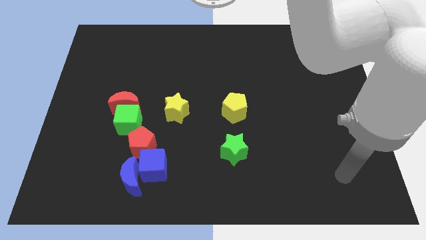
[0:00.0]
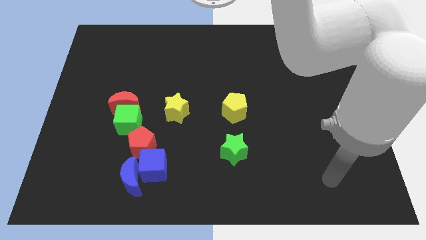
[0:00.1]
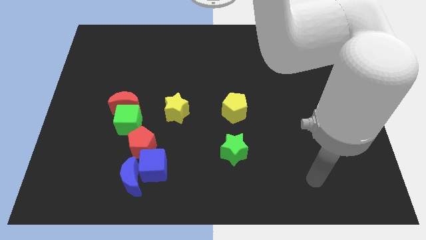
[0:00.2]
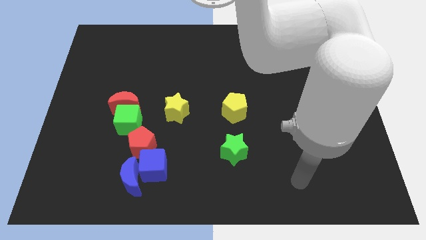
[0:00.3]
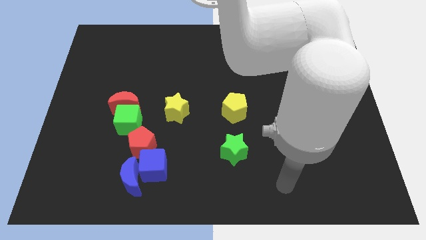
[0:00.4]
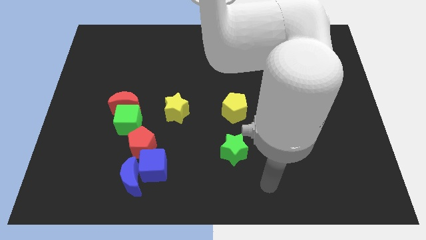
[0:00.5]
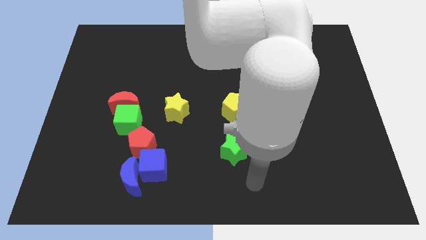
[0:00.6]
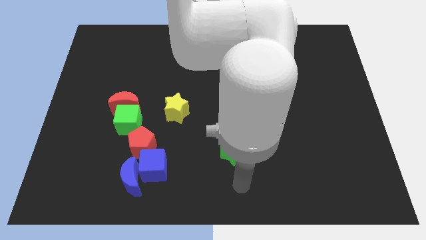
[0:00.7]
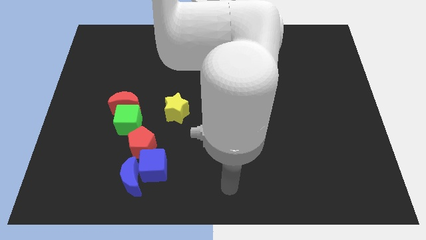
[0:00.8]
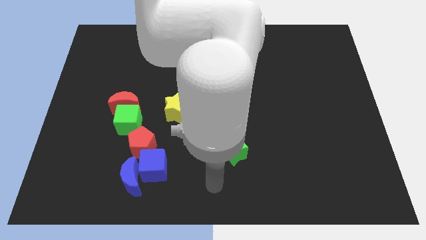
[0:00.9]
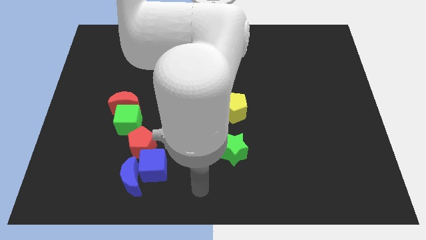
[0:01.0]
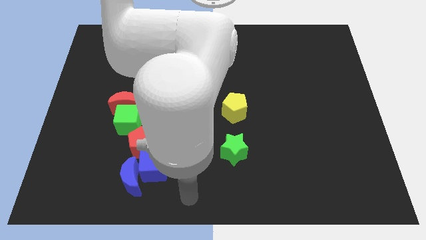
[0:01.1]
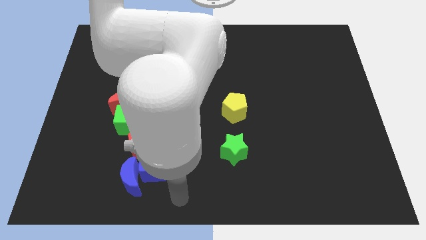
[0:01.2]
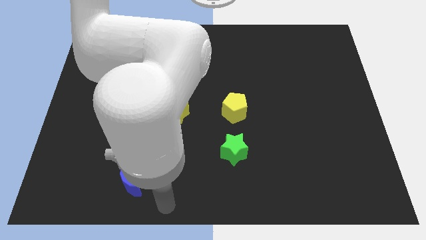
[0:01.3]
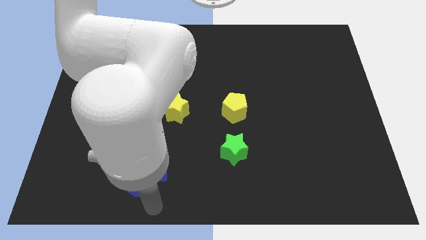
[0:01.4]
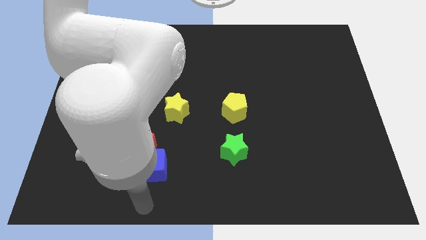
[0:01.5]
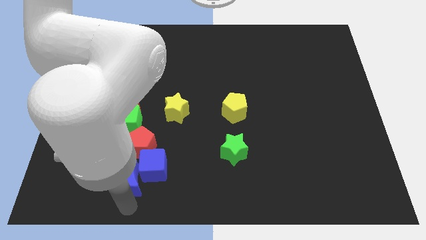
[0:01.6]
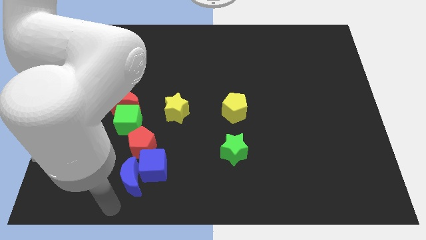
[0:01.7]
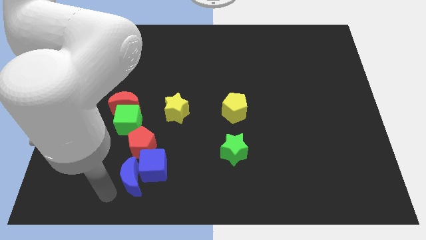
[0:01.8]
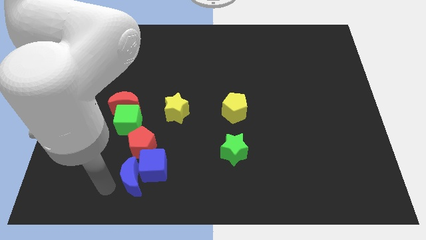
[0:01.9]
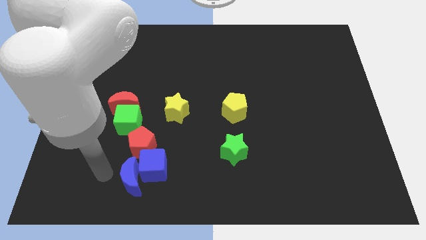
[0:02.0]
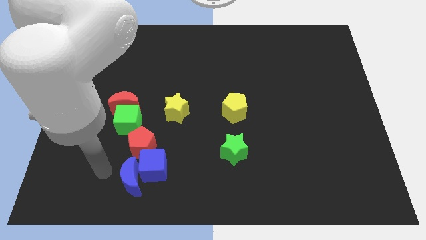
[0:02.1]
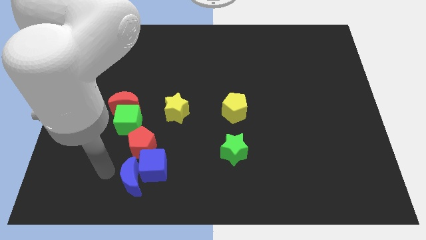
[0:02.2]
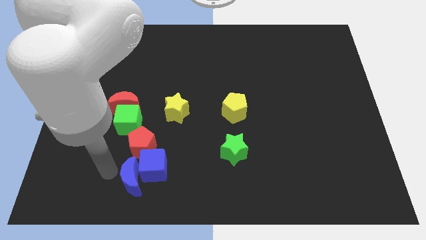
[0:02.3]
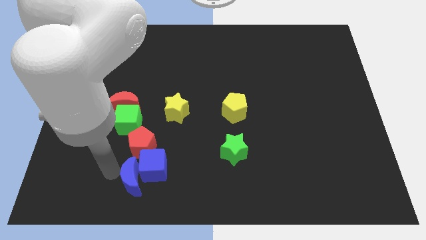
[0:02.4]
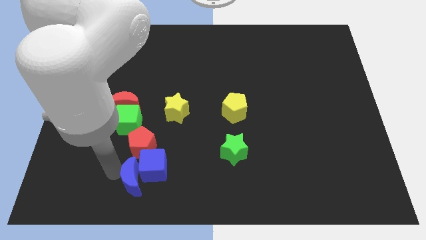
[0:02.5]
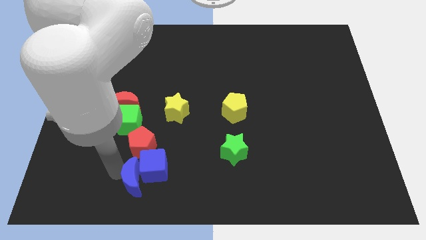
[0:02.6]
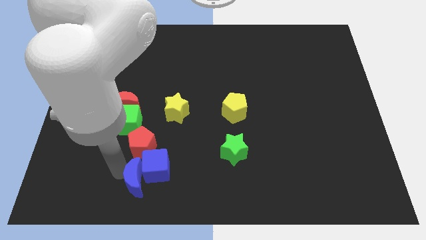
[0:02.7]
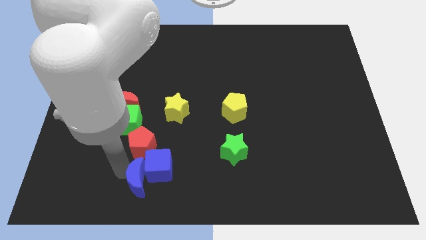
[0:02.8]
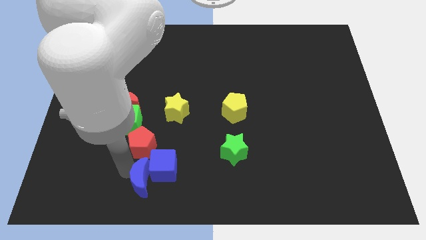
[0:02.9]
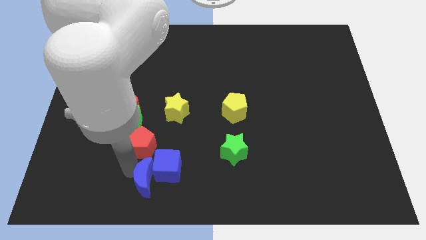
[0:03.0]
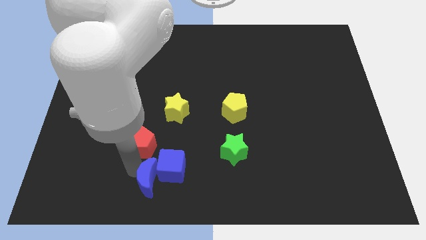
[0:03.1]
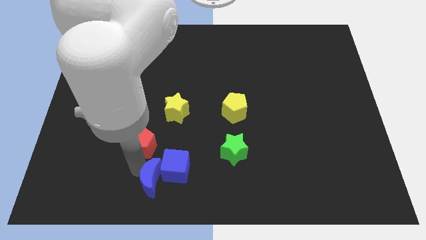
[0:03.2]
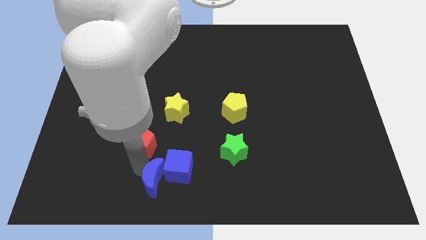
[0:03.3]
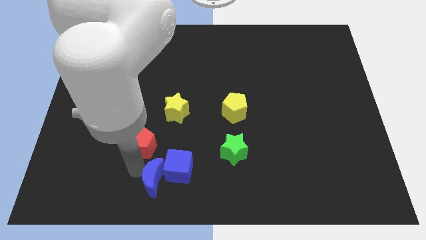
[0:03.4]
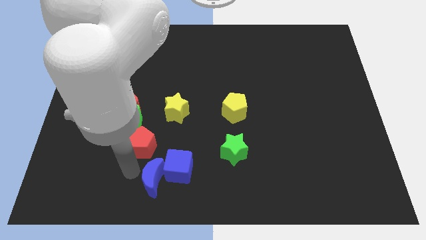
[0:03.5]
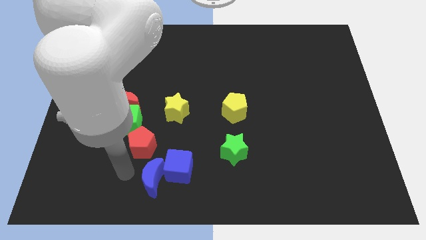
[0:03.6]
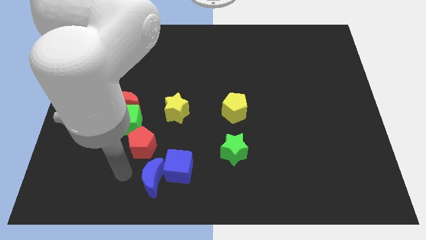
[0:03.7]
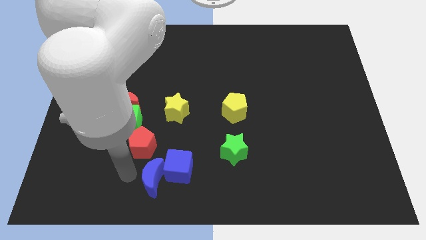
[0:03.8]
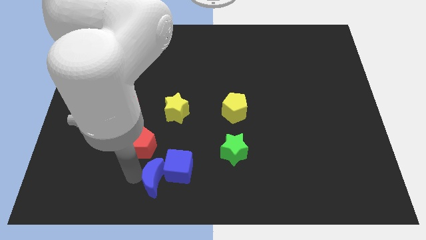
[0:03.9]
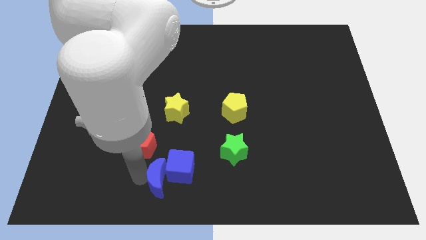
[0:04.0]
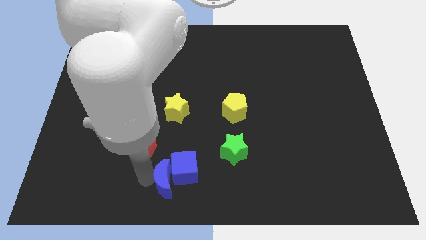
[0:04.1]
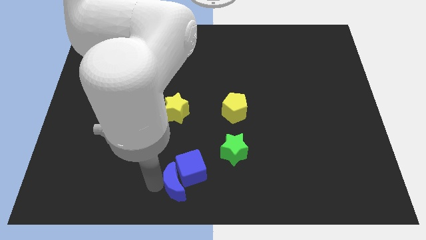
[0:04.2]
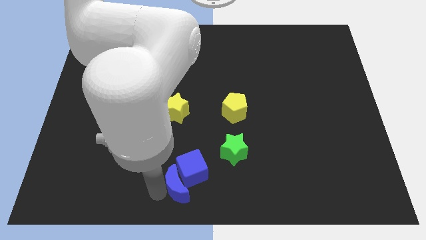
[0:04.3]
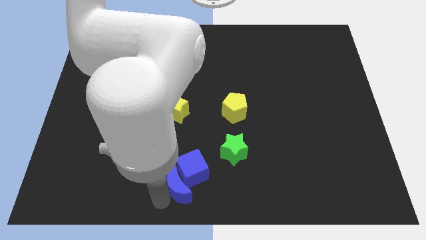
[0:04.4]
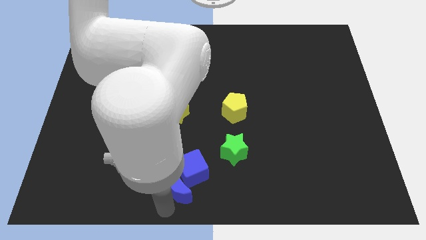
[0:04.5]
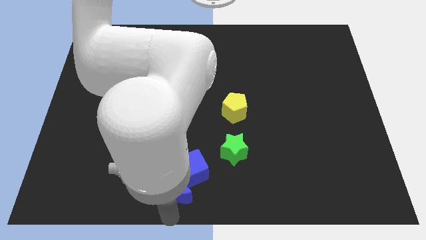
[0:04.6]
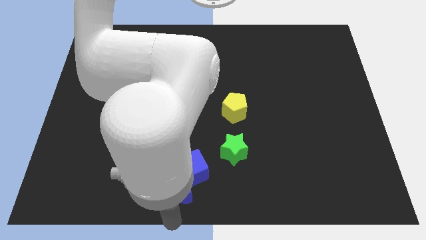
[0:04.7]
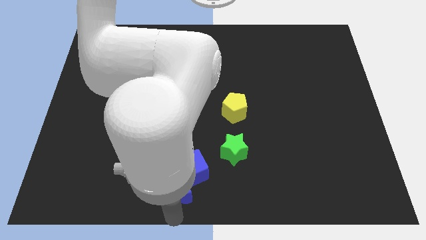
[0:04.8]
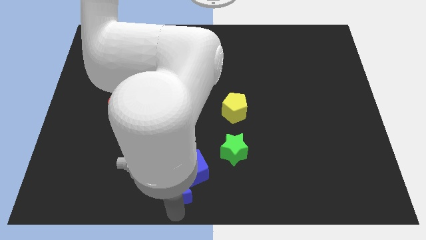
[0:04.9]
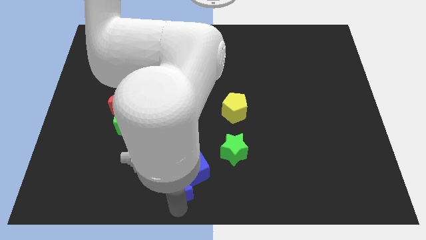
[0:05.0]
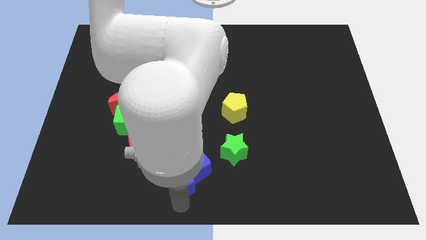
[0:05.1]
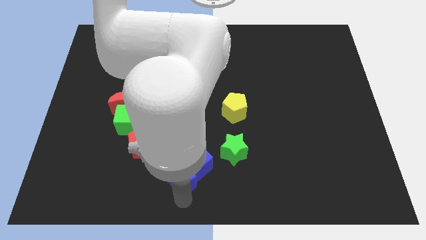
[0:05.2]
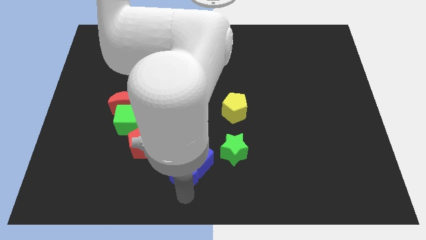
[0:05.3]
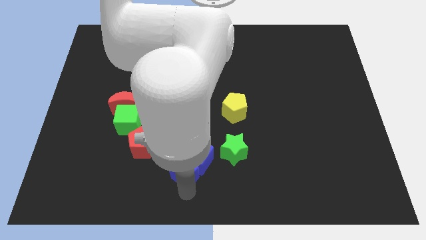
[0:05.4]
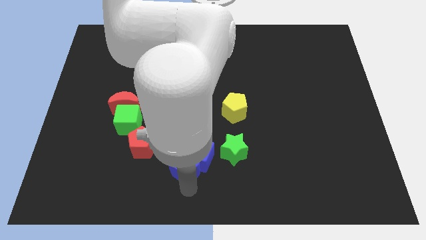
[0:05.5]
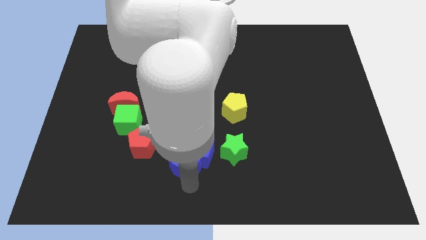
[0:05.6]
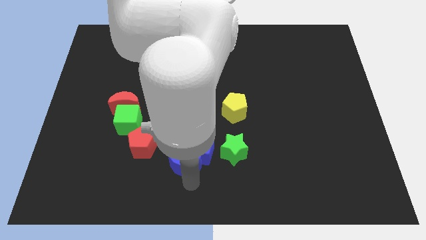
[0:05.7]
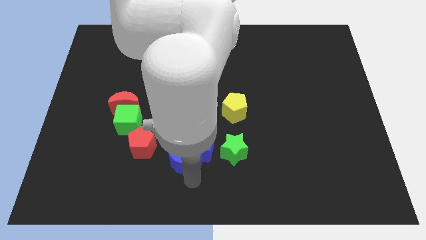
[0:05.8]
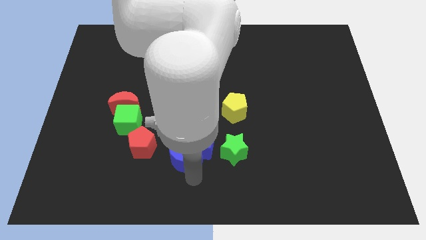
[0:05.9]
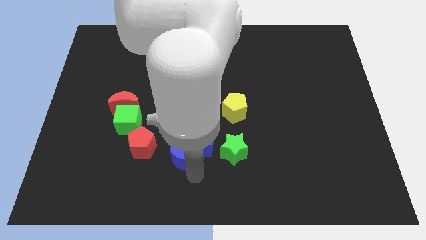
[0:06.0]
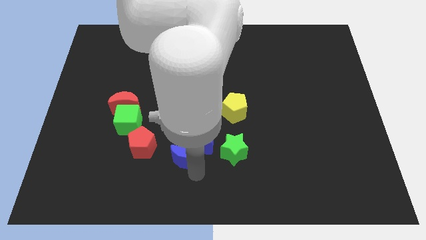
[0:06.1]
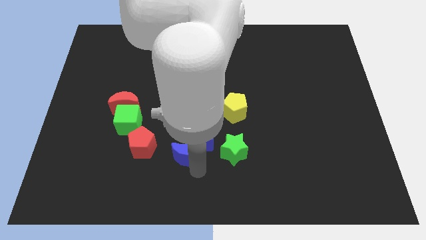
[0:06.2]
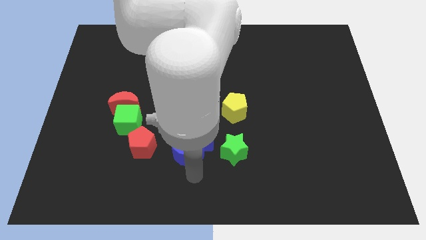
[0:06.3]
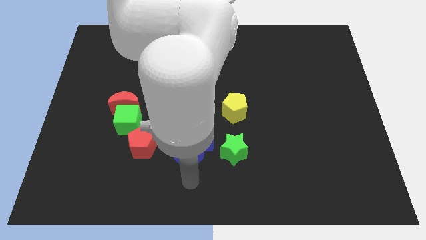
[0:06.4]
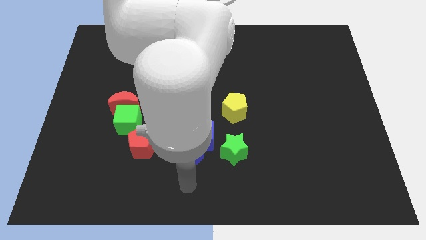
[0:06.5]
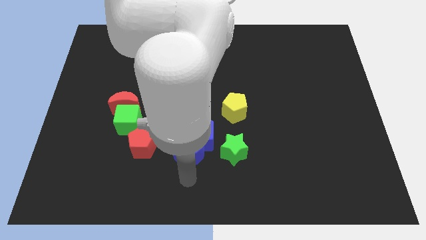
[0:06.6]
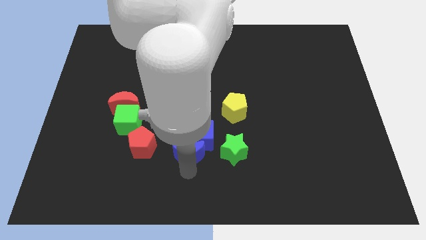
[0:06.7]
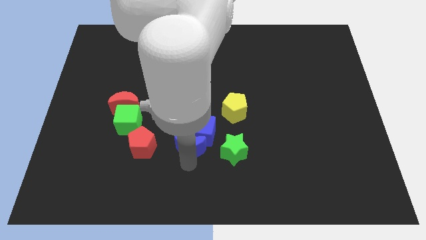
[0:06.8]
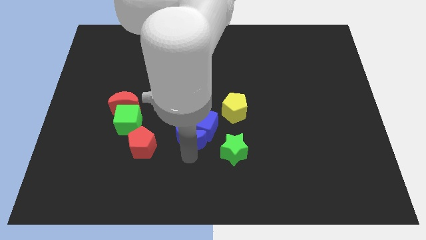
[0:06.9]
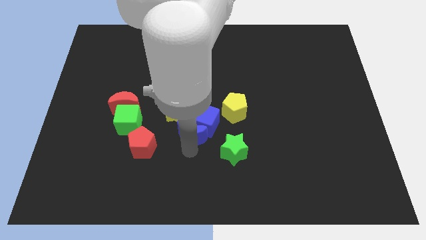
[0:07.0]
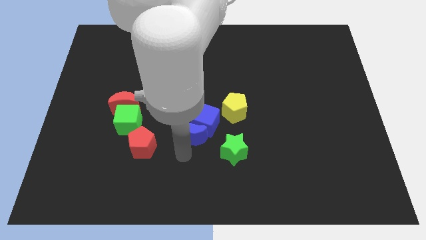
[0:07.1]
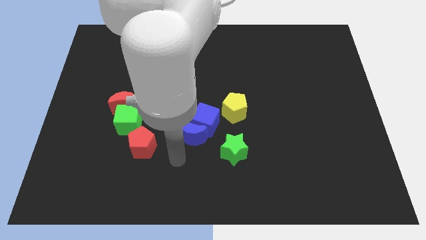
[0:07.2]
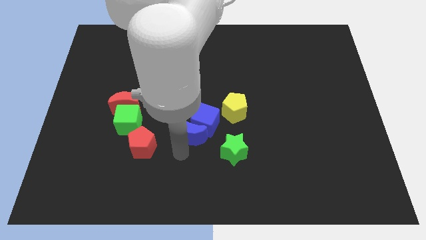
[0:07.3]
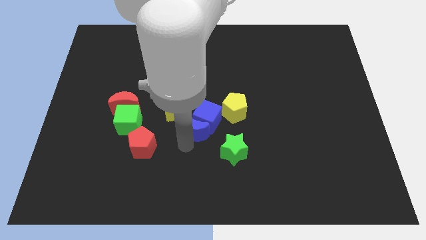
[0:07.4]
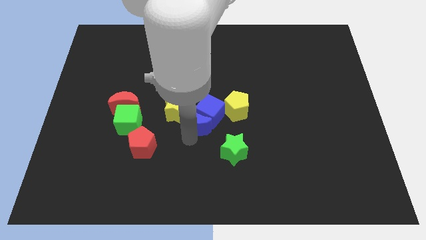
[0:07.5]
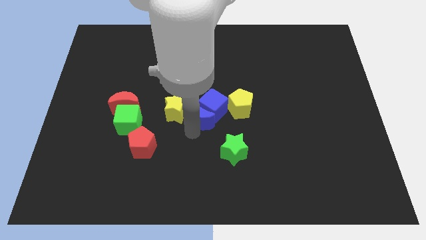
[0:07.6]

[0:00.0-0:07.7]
slide the blue moon upwards and to the right diagonally

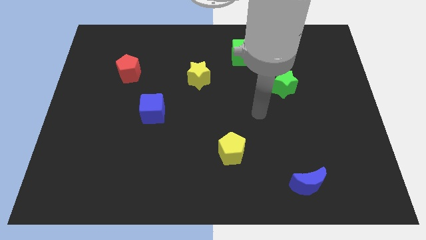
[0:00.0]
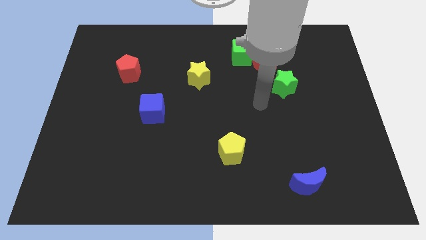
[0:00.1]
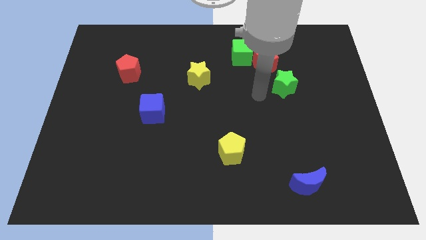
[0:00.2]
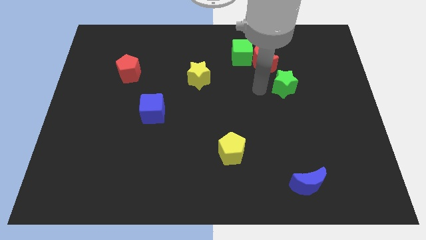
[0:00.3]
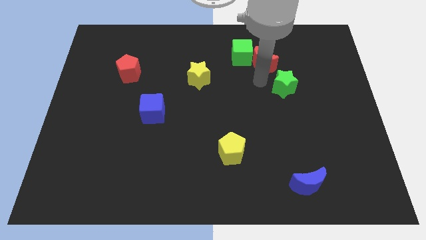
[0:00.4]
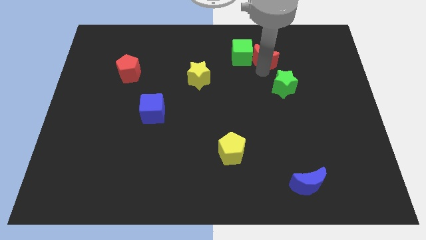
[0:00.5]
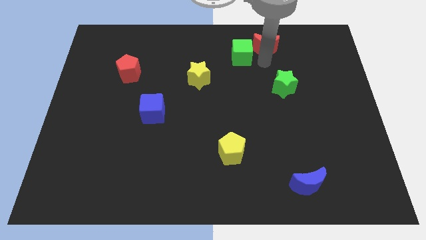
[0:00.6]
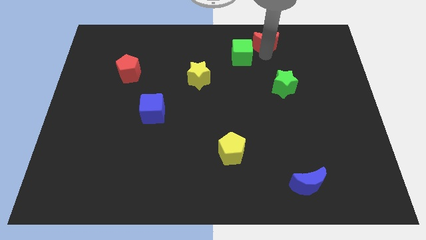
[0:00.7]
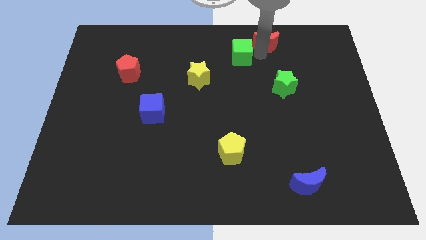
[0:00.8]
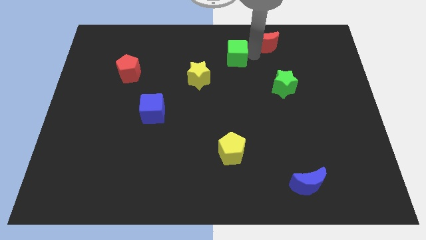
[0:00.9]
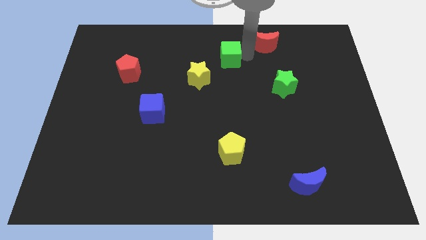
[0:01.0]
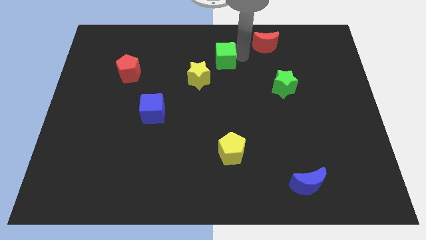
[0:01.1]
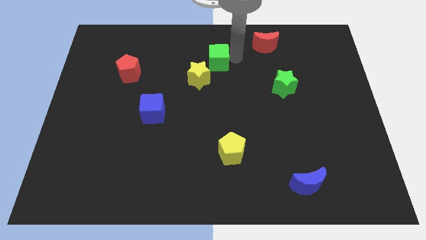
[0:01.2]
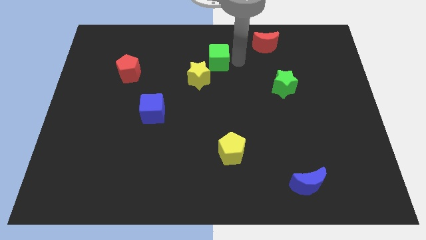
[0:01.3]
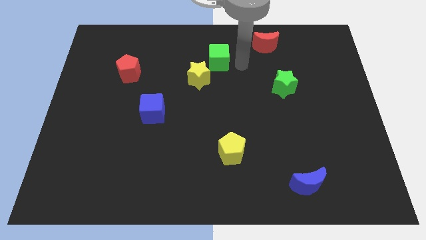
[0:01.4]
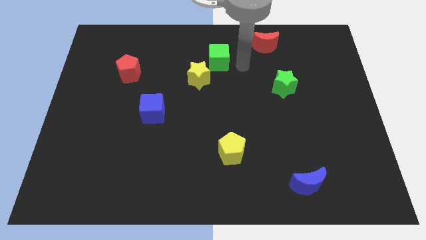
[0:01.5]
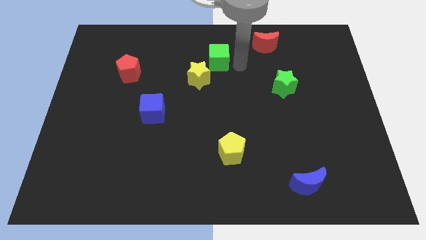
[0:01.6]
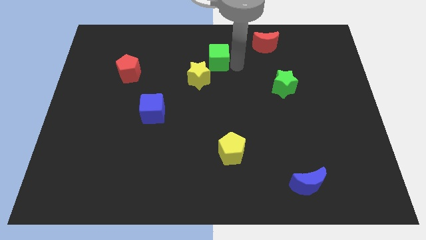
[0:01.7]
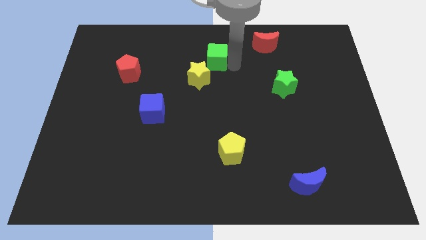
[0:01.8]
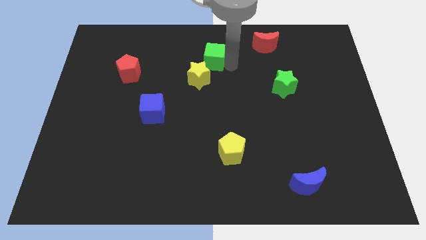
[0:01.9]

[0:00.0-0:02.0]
slightly push the green cube left
